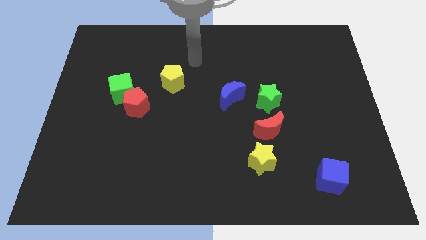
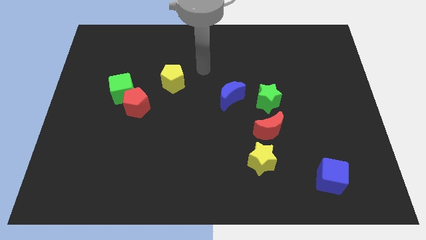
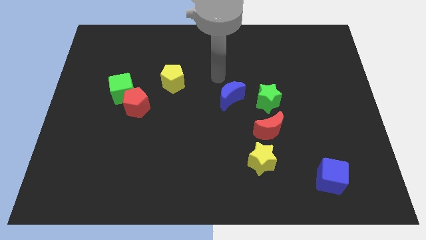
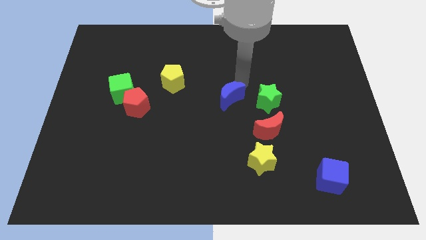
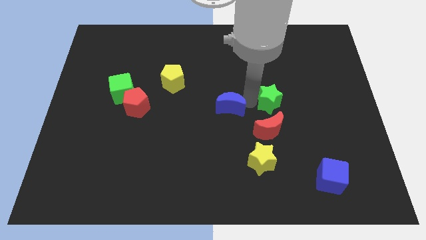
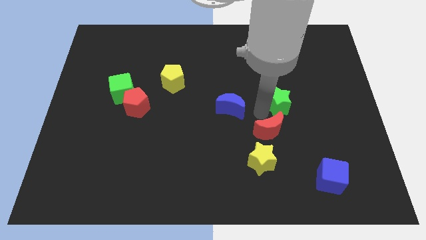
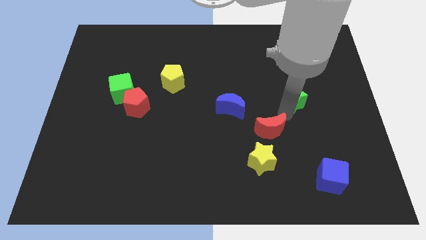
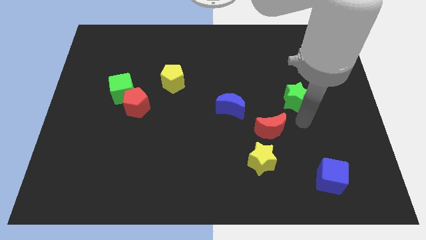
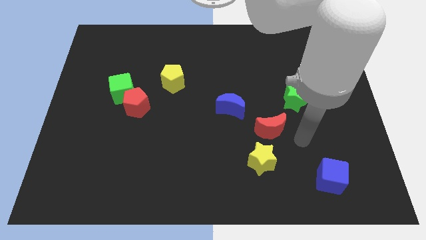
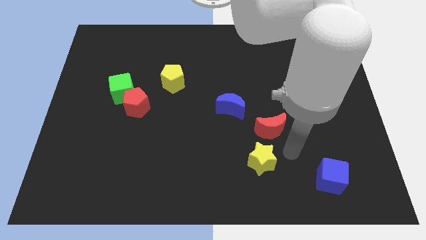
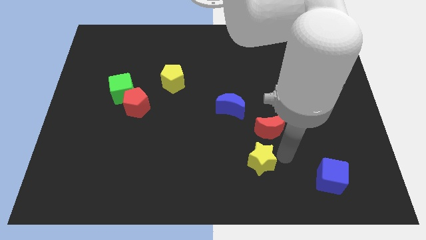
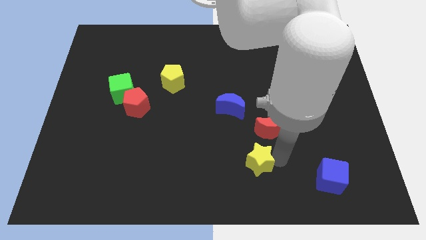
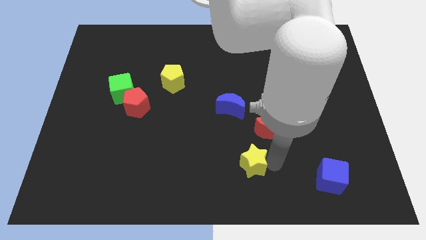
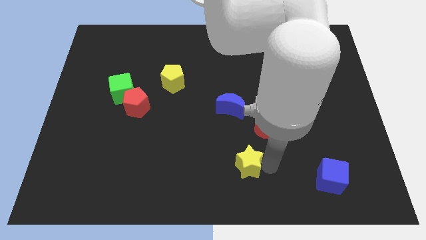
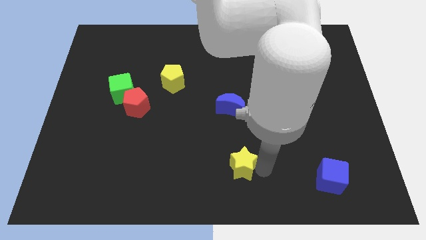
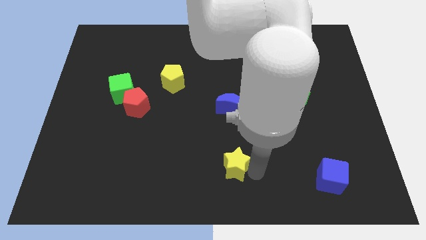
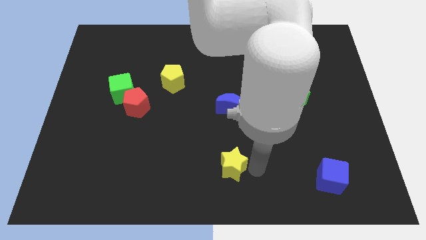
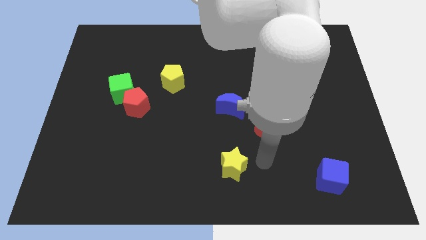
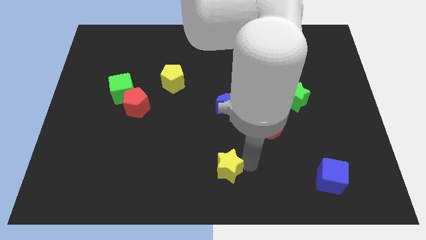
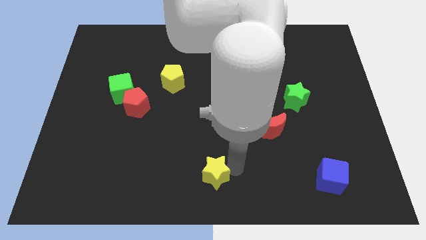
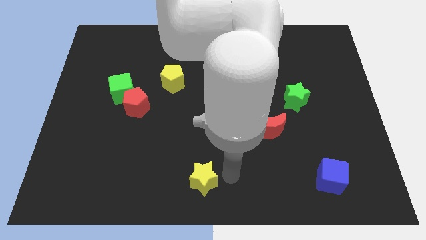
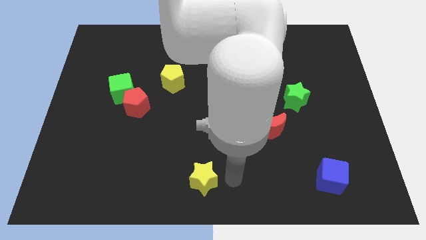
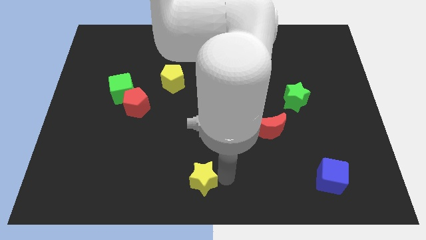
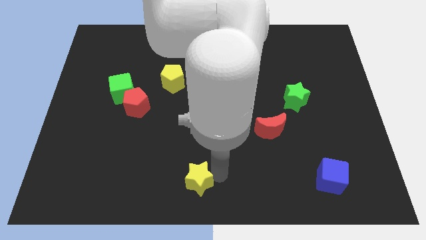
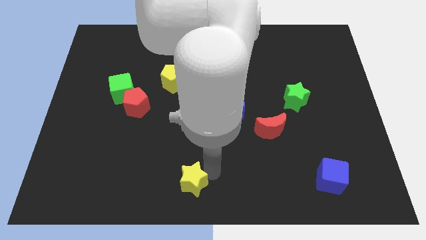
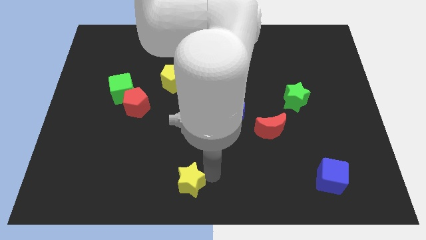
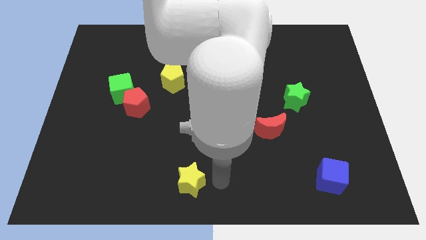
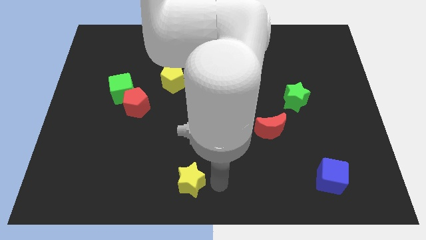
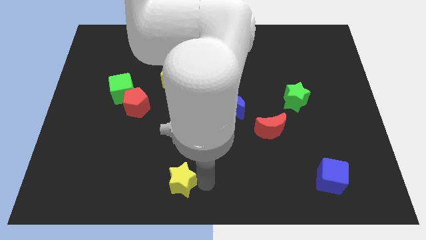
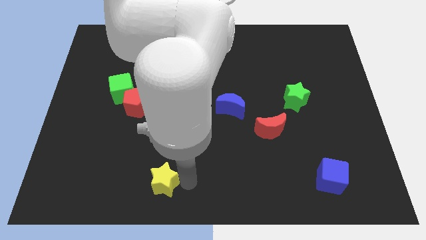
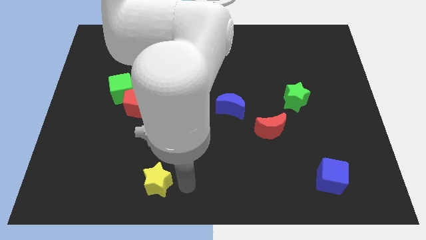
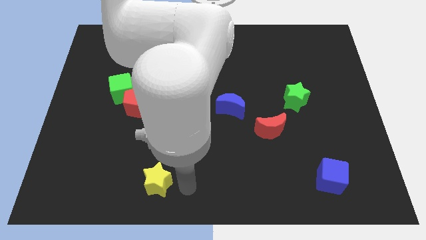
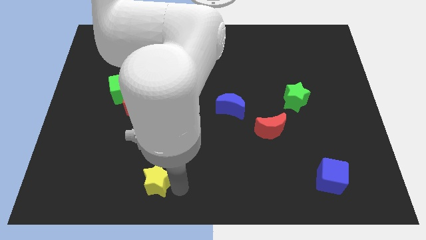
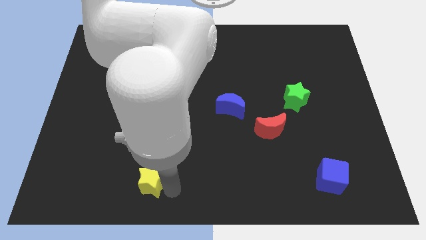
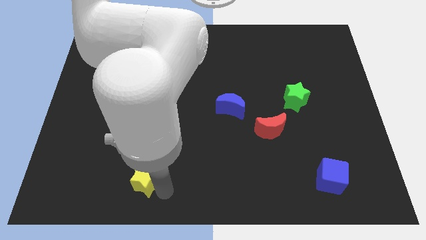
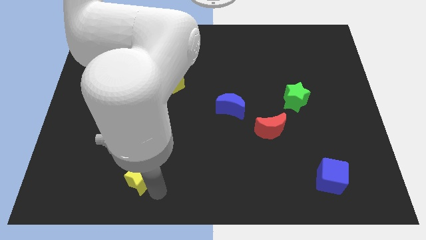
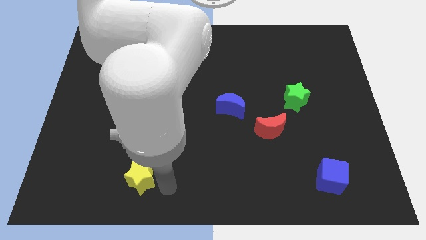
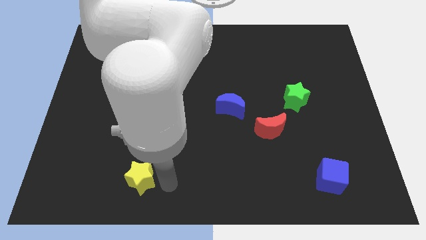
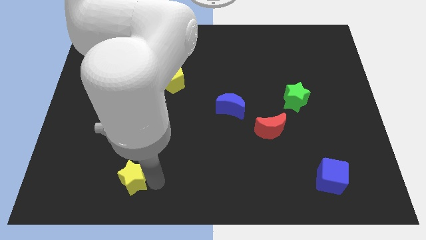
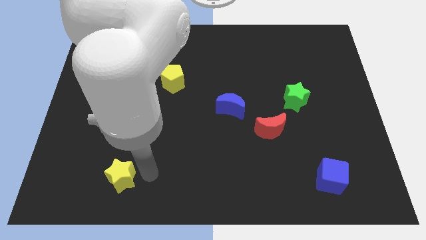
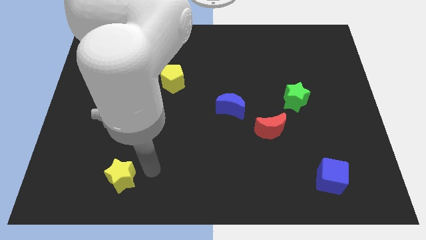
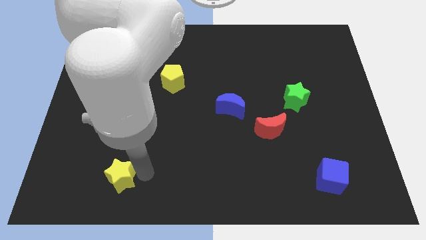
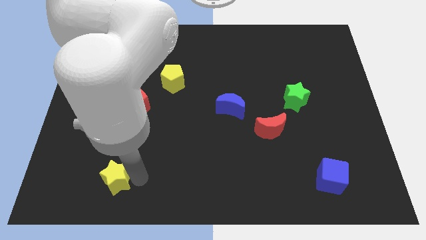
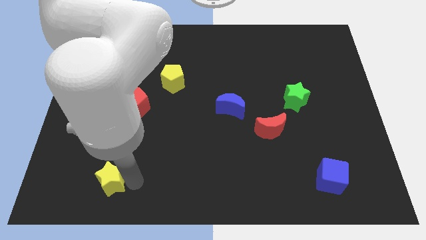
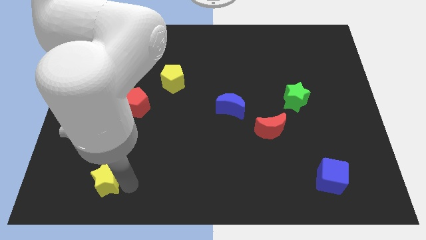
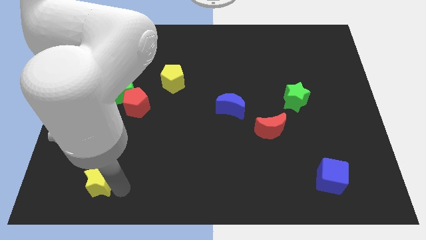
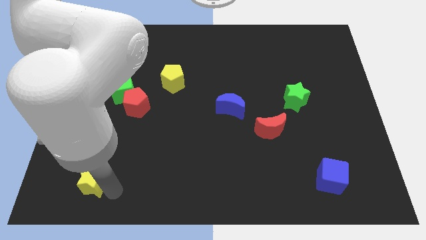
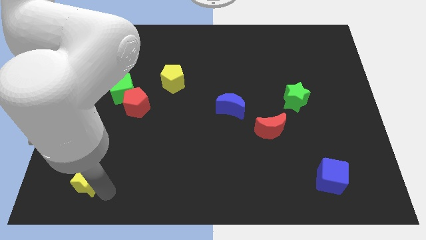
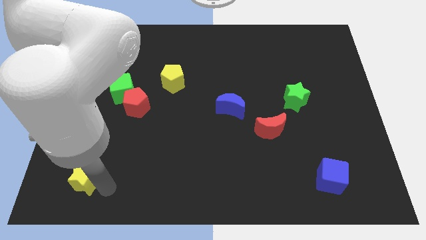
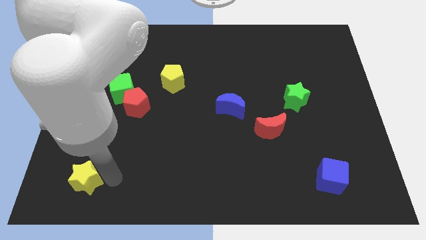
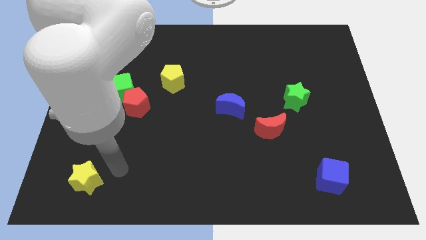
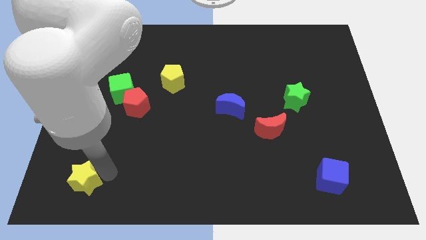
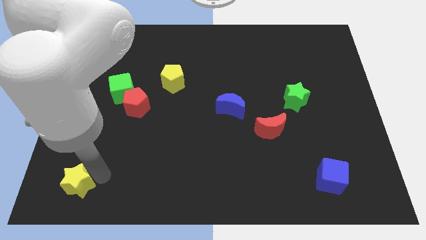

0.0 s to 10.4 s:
move the yellow star to the bottom left corner
